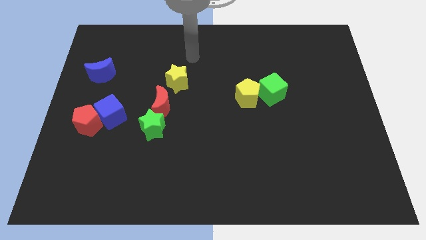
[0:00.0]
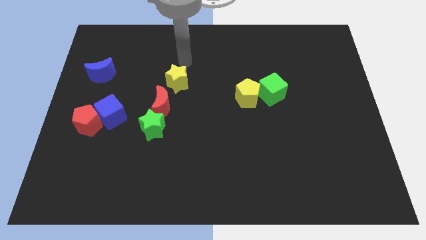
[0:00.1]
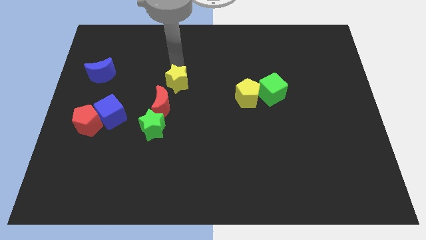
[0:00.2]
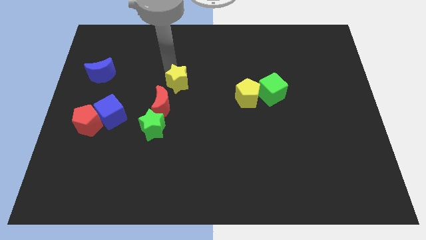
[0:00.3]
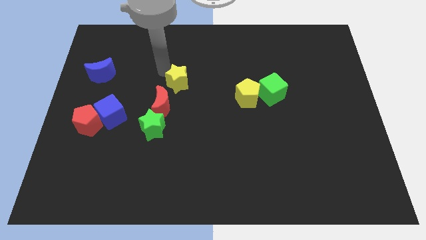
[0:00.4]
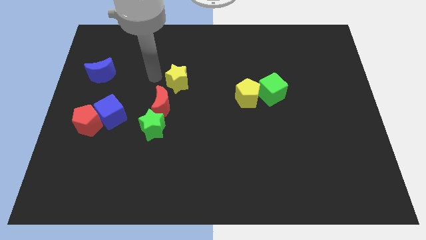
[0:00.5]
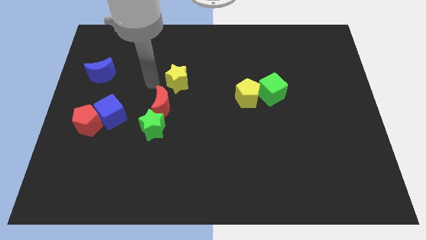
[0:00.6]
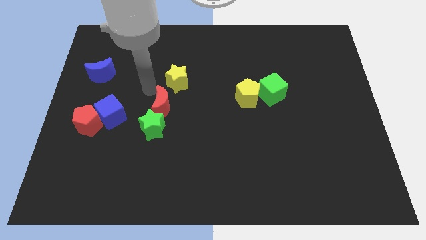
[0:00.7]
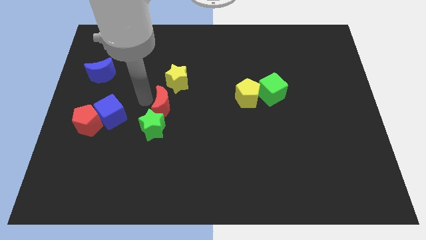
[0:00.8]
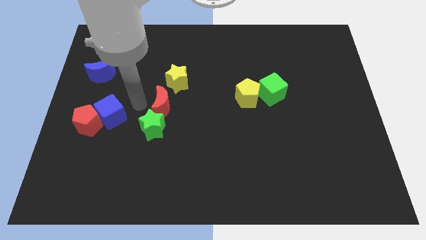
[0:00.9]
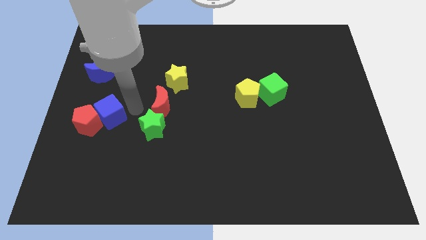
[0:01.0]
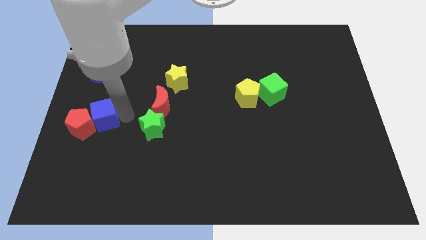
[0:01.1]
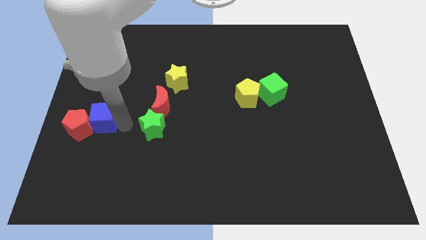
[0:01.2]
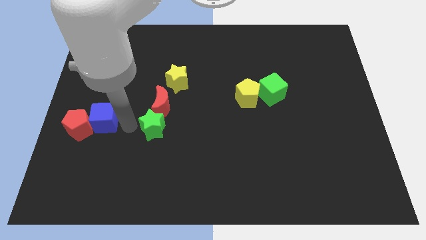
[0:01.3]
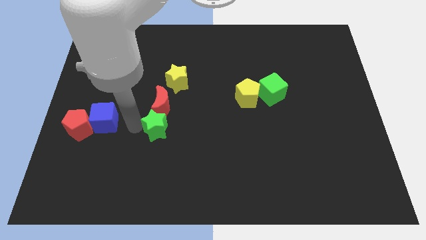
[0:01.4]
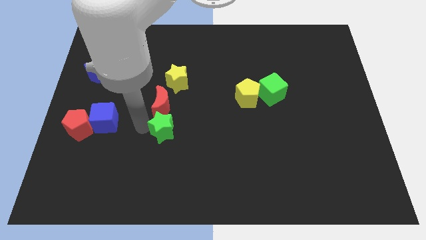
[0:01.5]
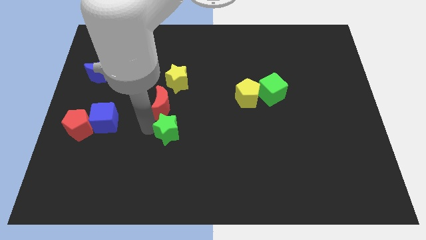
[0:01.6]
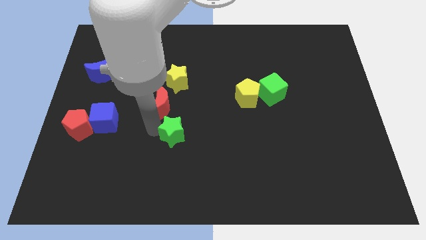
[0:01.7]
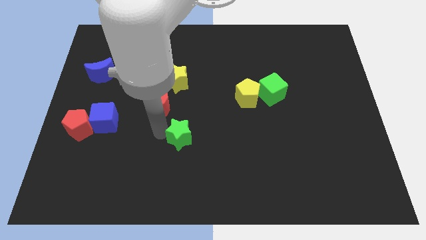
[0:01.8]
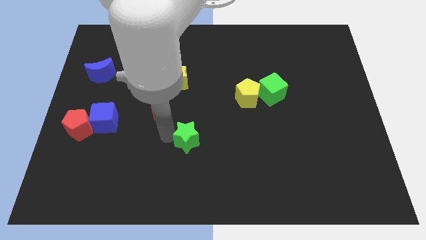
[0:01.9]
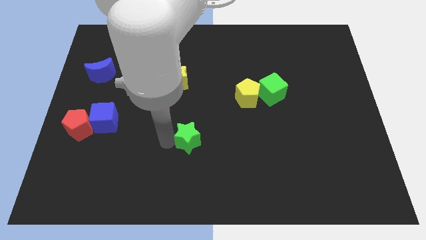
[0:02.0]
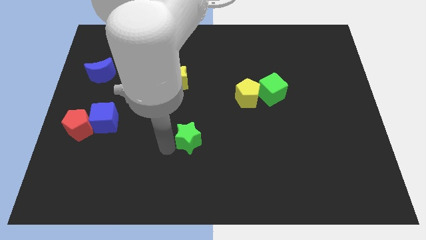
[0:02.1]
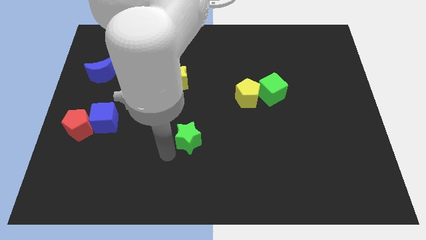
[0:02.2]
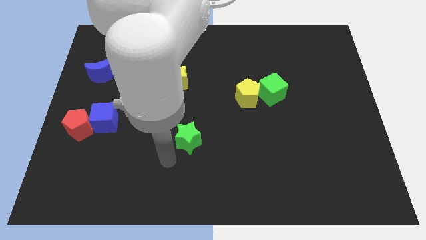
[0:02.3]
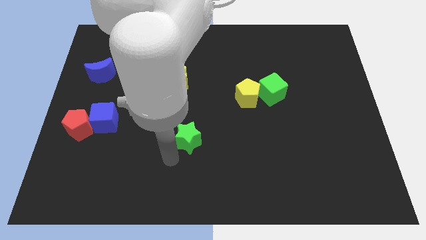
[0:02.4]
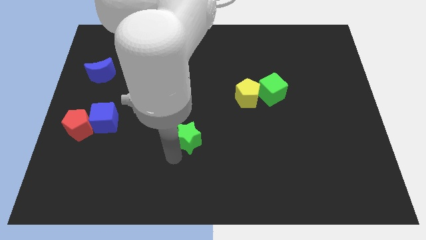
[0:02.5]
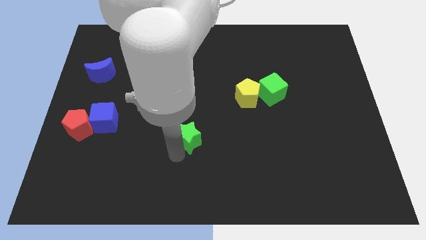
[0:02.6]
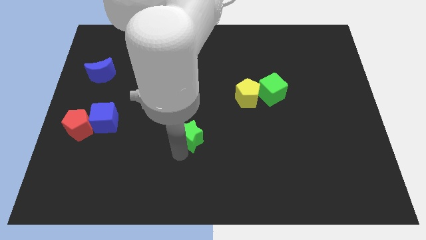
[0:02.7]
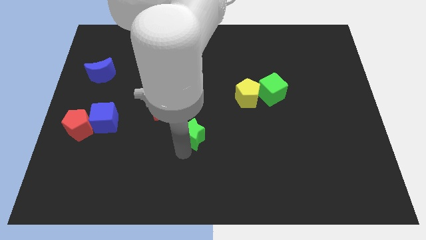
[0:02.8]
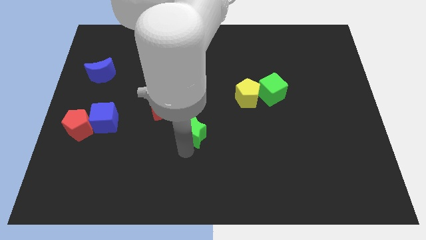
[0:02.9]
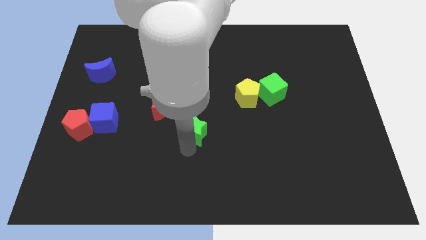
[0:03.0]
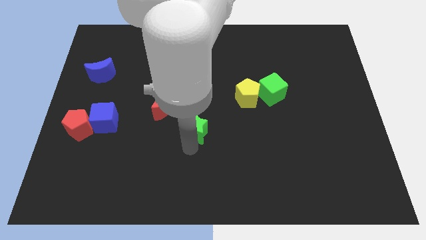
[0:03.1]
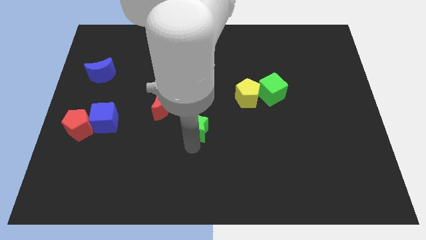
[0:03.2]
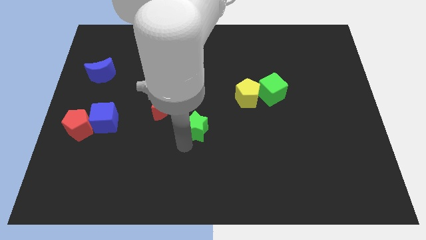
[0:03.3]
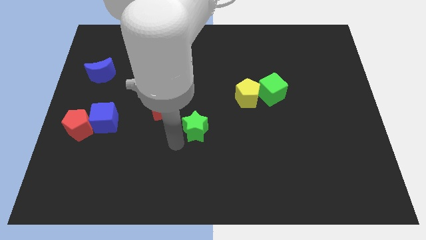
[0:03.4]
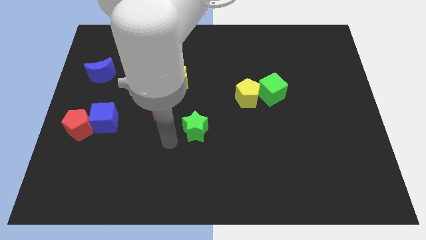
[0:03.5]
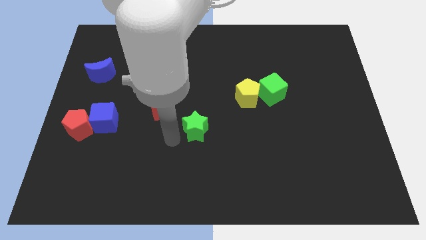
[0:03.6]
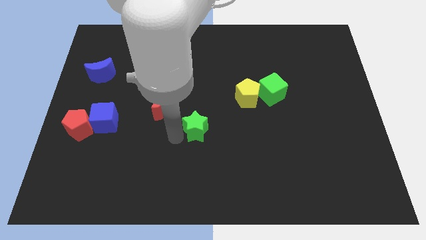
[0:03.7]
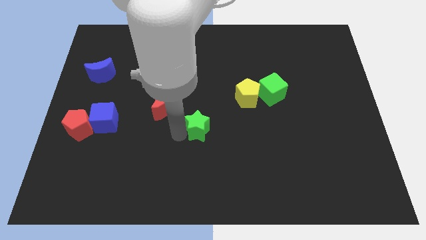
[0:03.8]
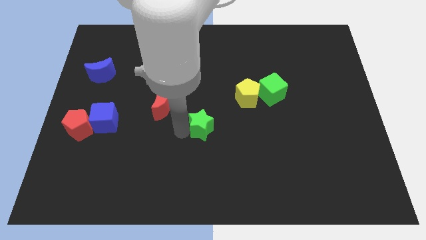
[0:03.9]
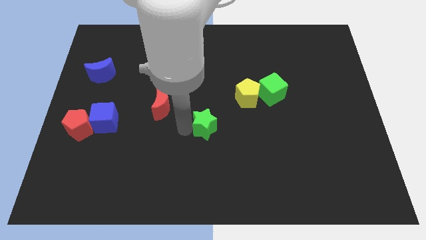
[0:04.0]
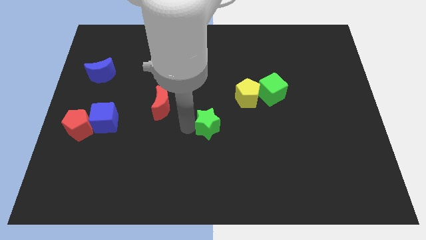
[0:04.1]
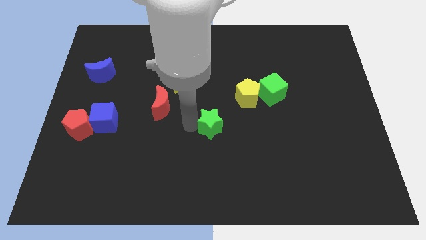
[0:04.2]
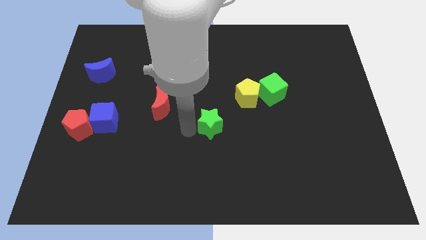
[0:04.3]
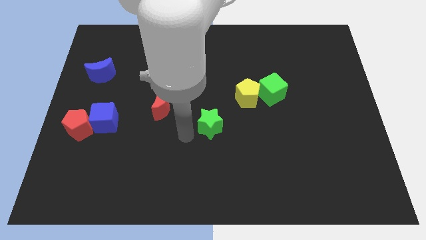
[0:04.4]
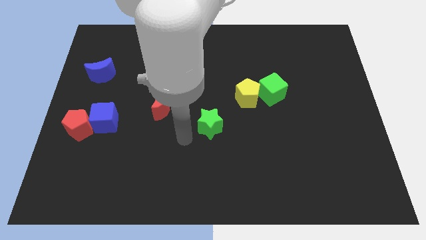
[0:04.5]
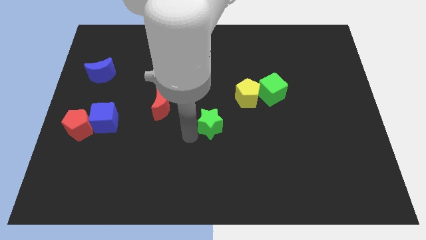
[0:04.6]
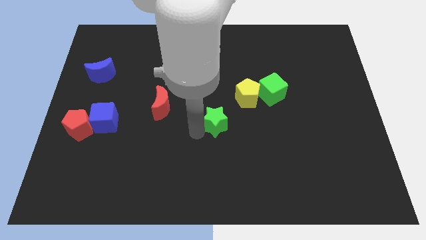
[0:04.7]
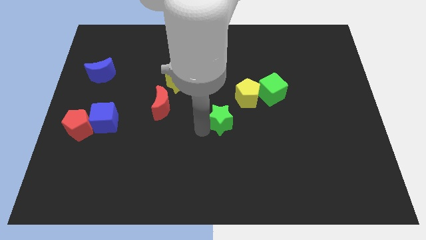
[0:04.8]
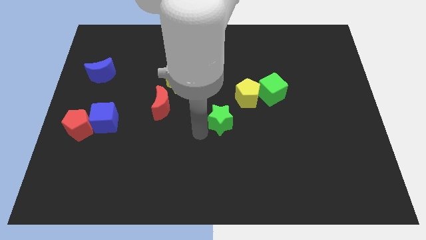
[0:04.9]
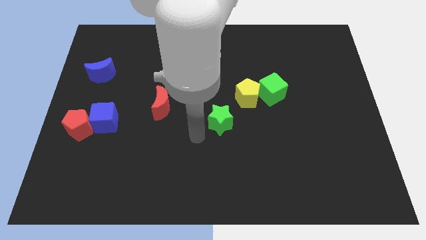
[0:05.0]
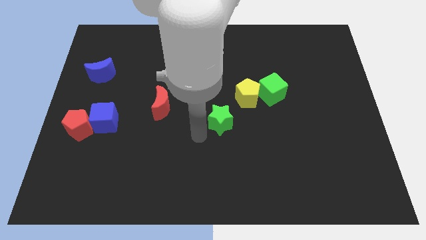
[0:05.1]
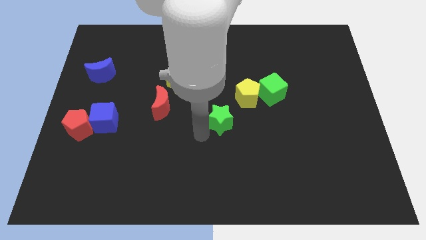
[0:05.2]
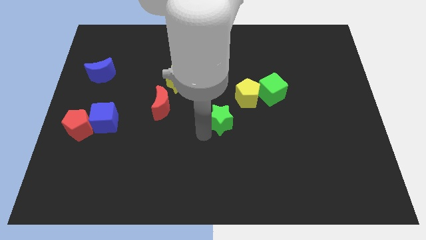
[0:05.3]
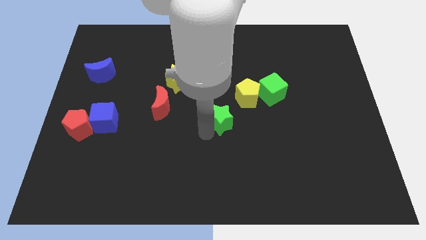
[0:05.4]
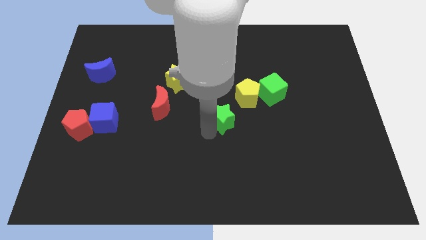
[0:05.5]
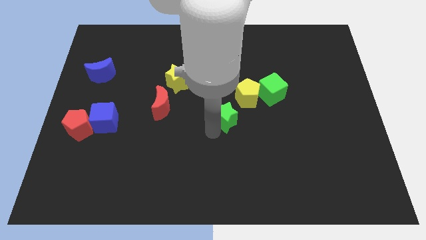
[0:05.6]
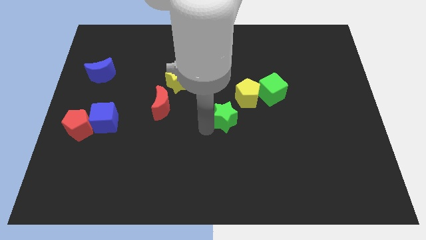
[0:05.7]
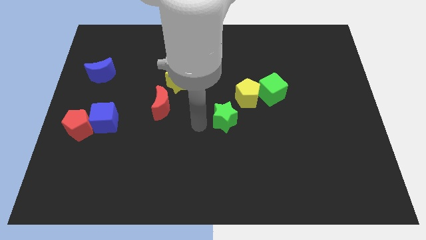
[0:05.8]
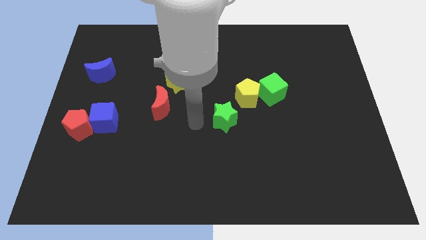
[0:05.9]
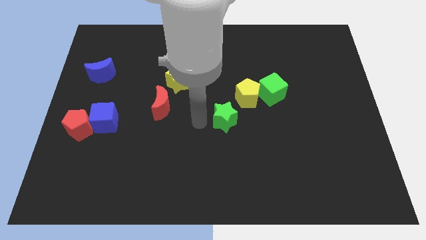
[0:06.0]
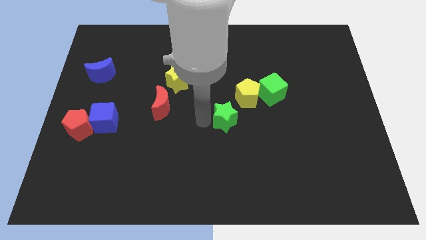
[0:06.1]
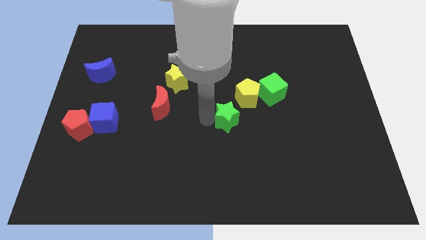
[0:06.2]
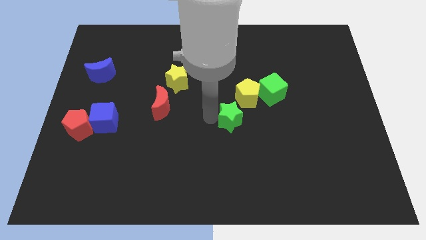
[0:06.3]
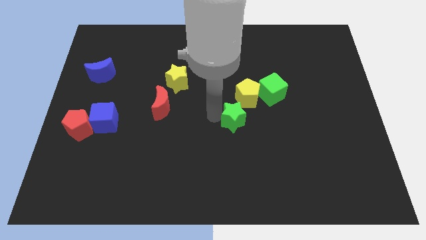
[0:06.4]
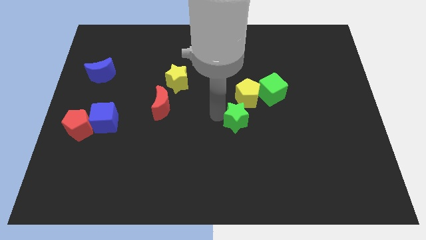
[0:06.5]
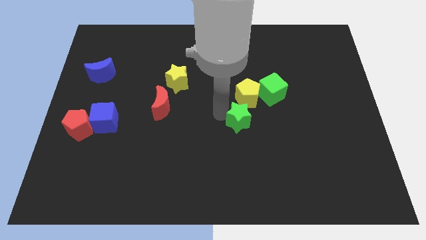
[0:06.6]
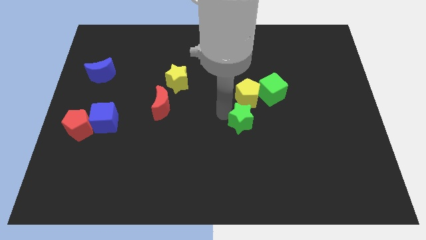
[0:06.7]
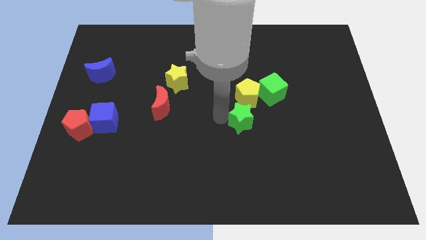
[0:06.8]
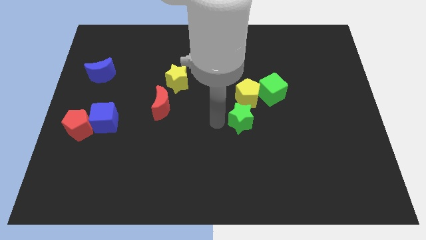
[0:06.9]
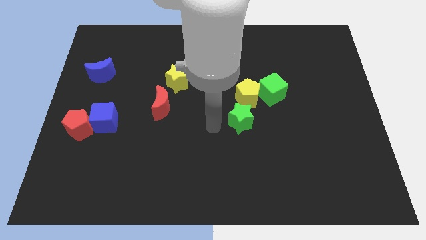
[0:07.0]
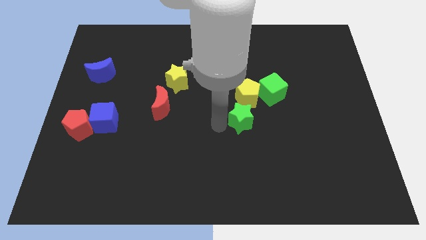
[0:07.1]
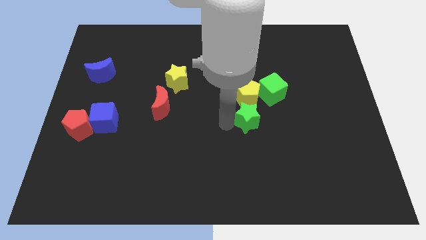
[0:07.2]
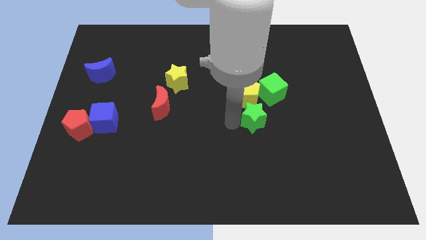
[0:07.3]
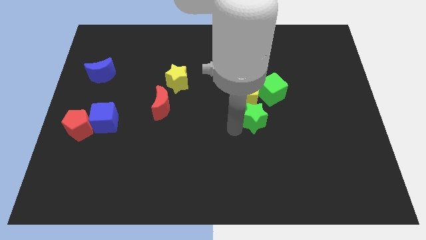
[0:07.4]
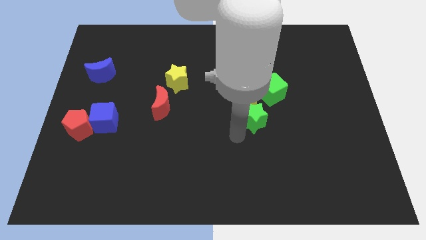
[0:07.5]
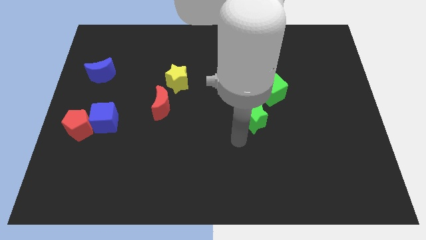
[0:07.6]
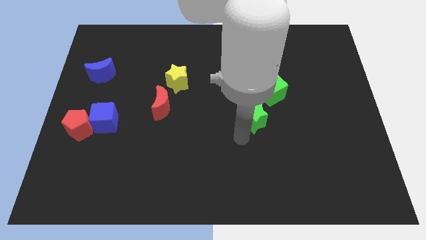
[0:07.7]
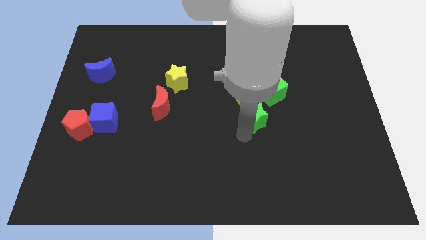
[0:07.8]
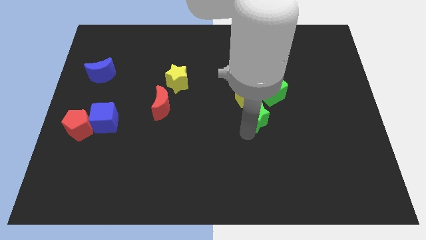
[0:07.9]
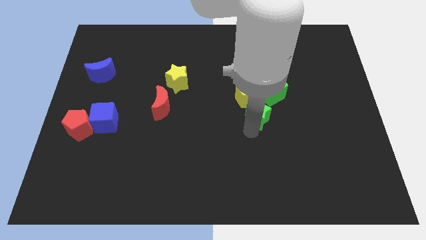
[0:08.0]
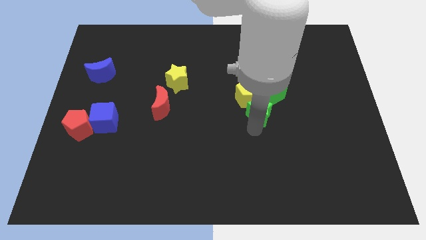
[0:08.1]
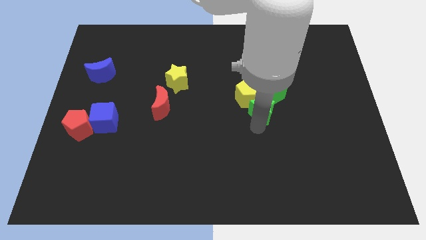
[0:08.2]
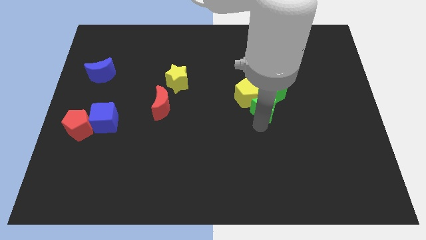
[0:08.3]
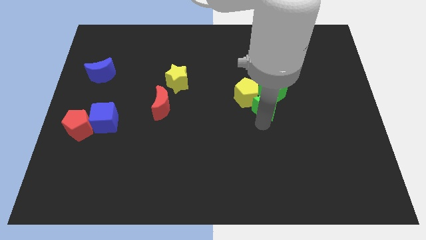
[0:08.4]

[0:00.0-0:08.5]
move the green star close to the green cube
